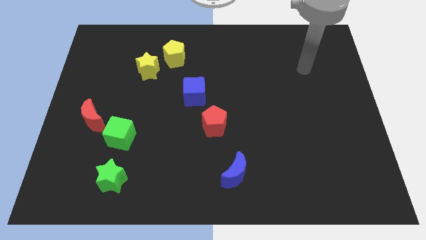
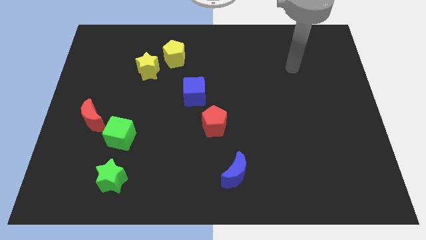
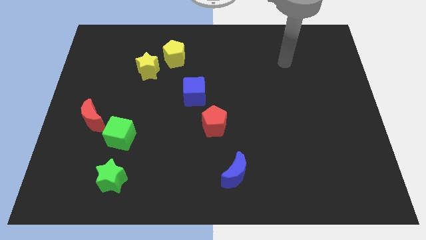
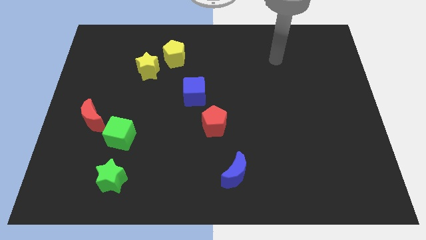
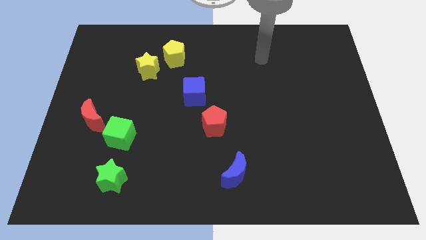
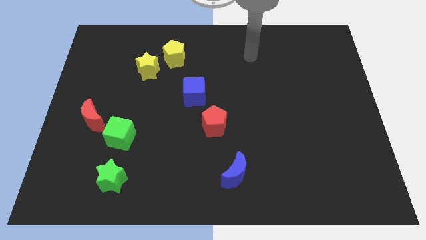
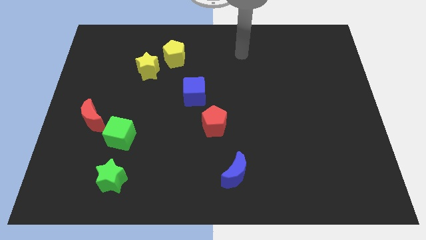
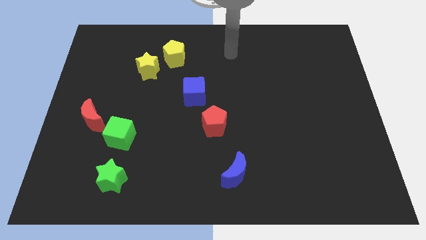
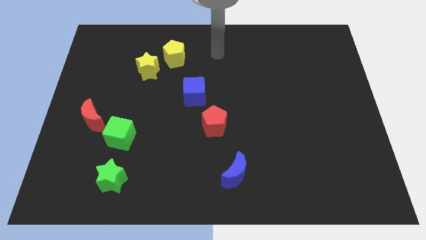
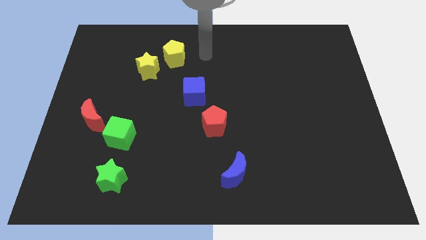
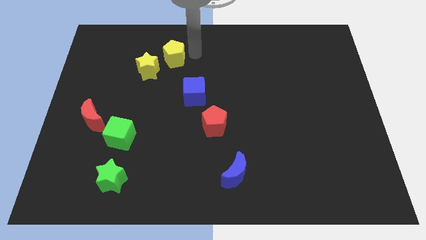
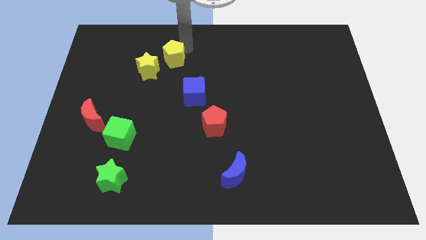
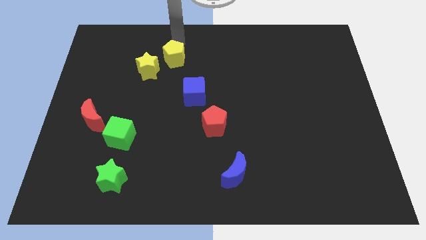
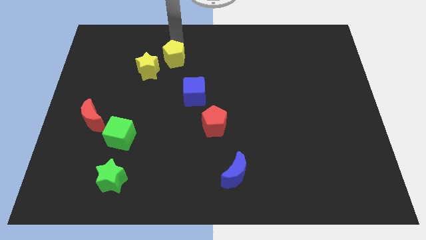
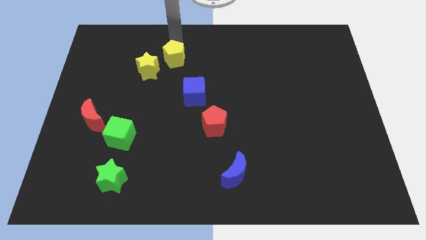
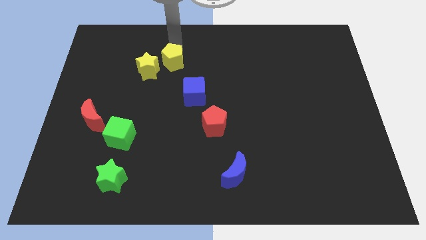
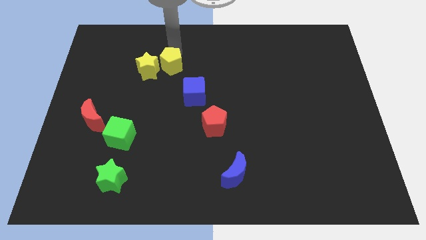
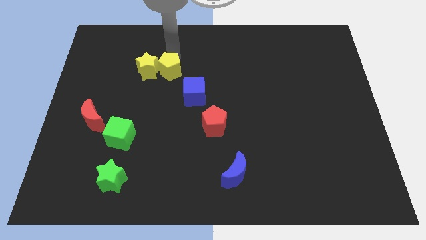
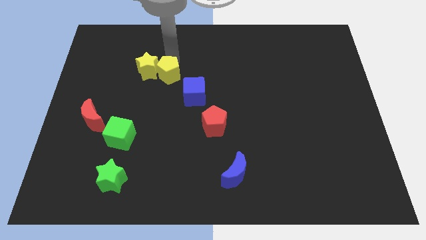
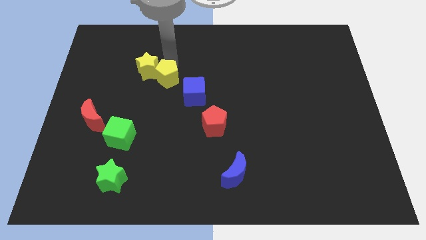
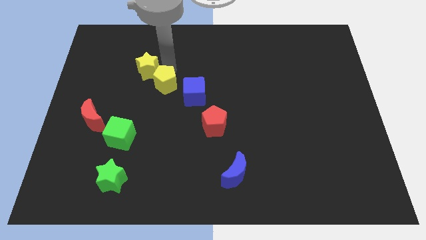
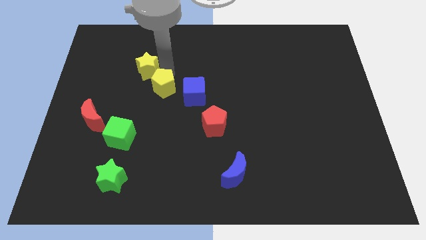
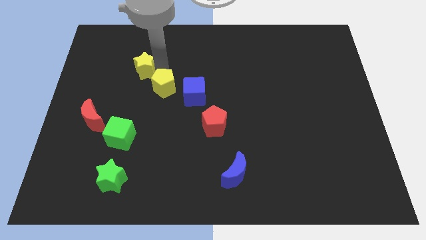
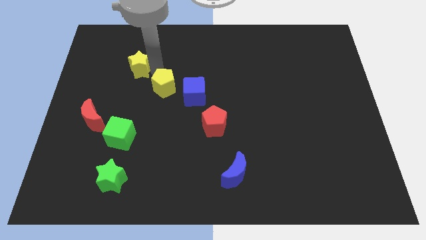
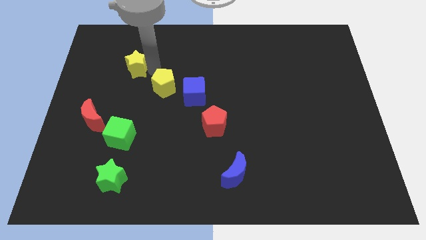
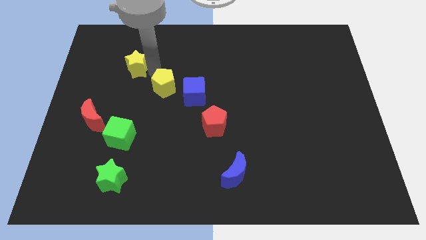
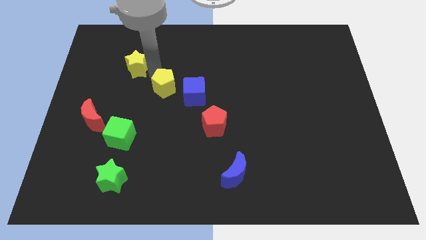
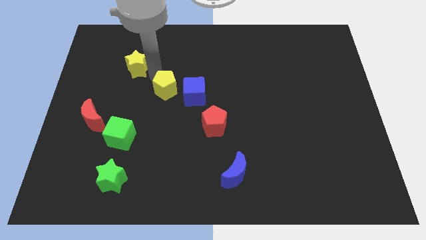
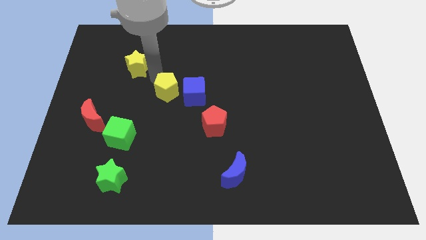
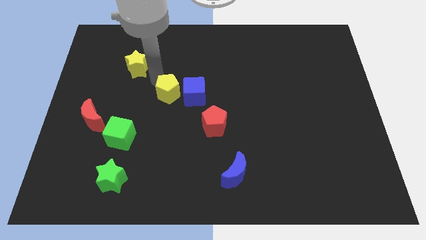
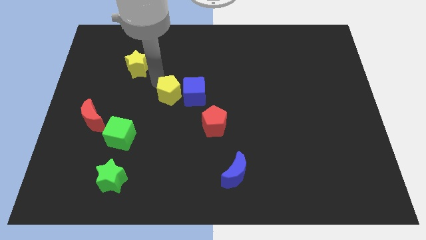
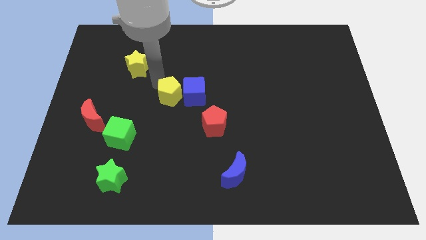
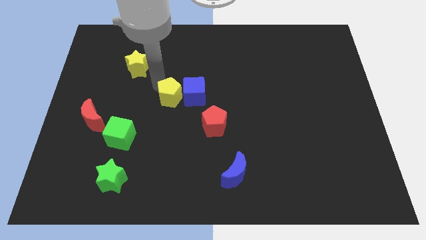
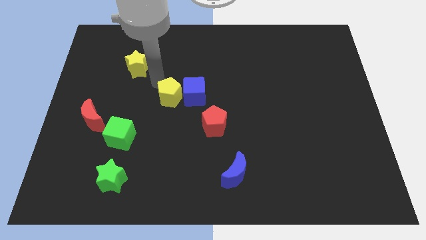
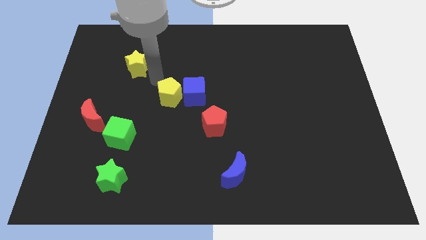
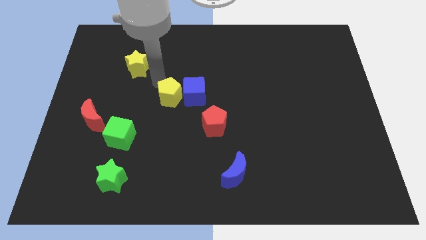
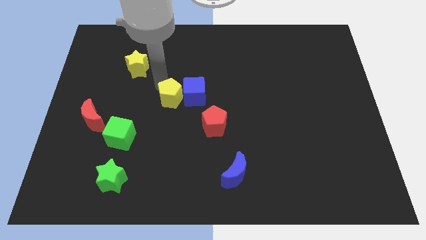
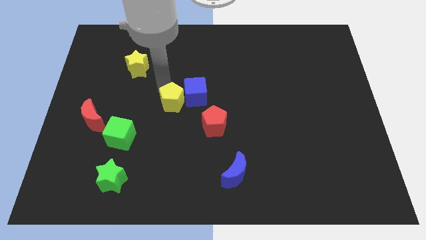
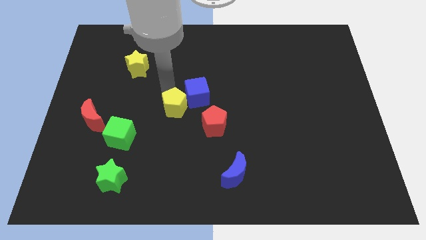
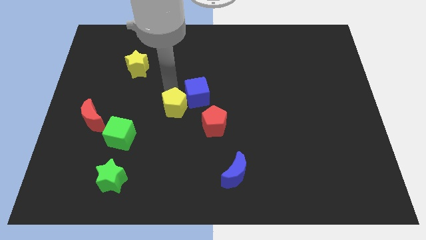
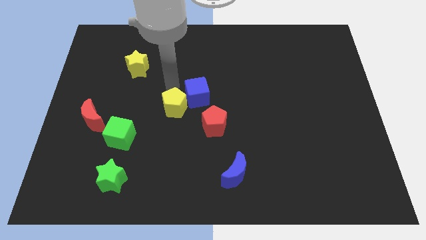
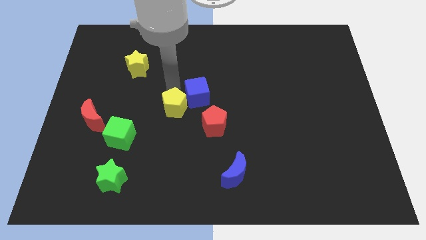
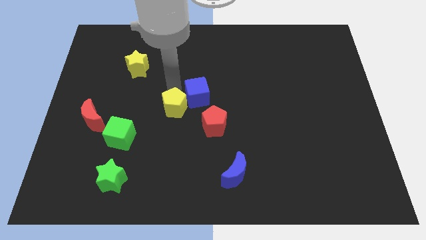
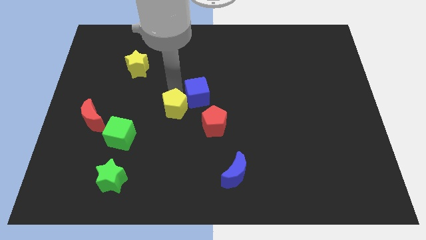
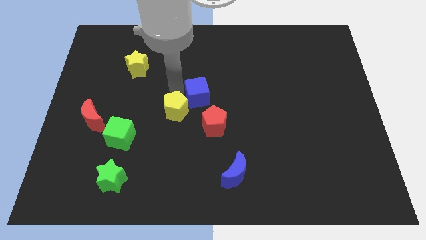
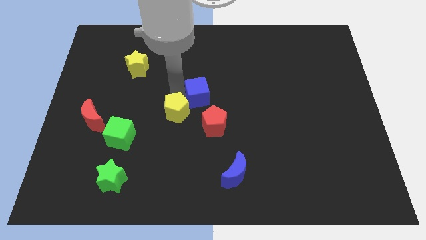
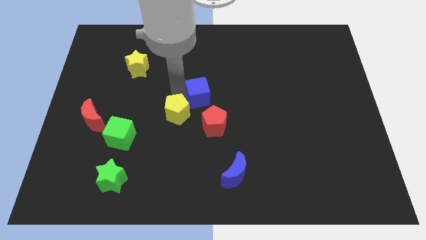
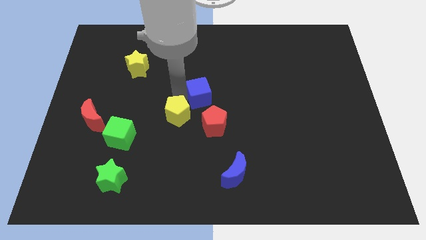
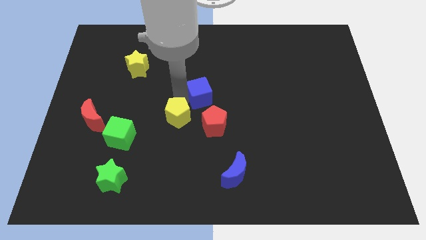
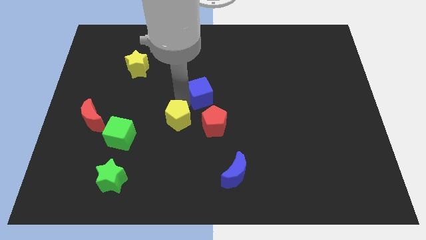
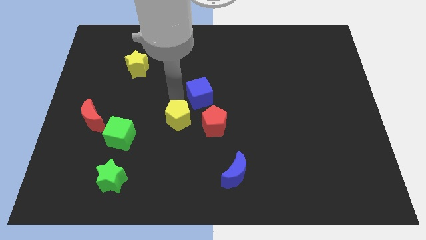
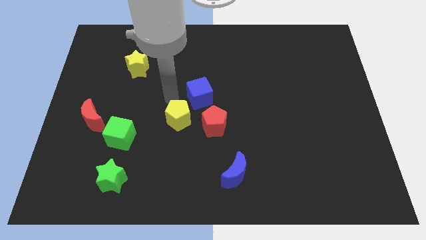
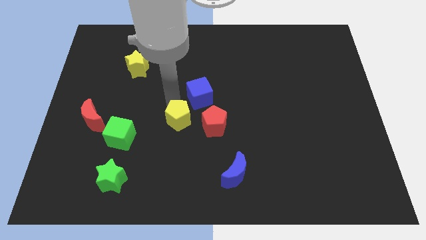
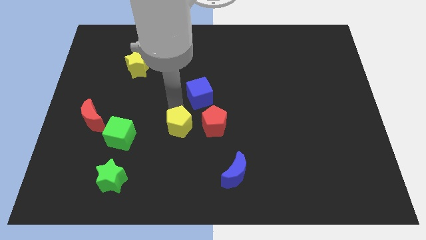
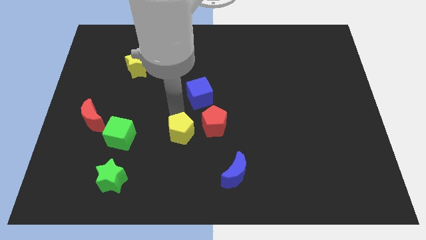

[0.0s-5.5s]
put the yellow pentagon to the bottom left of the red pentagon

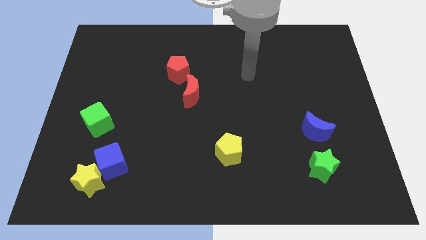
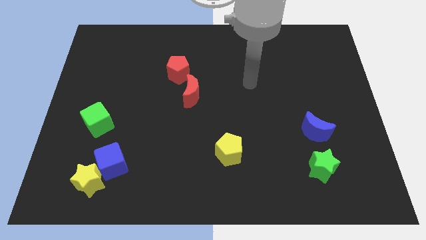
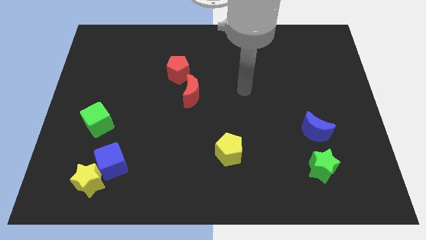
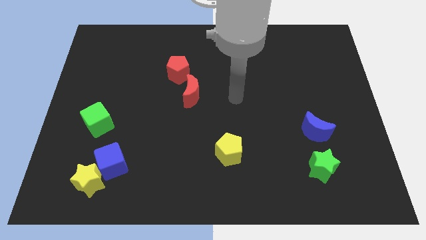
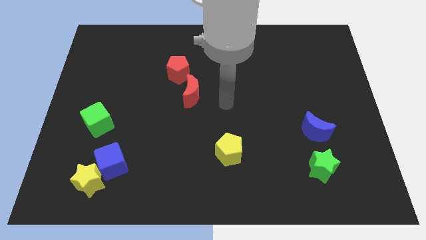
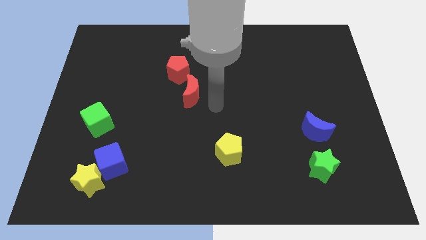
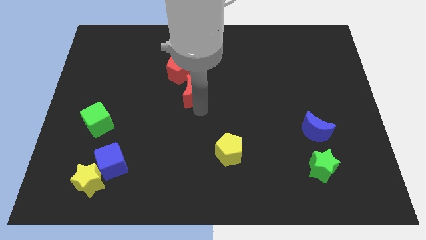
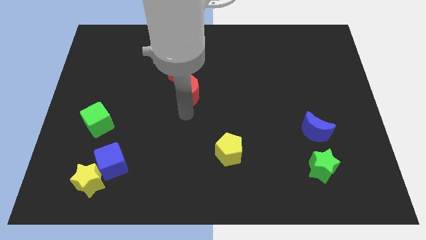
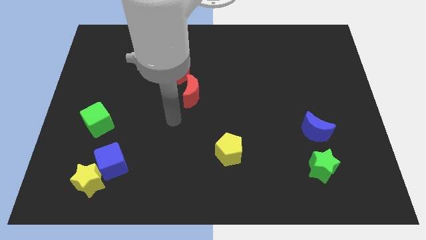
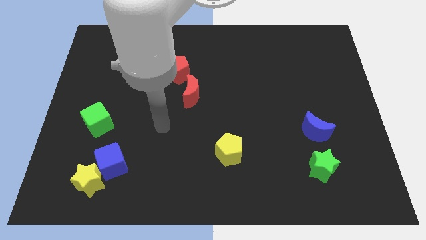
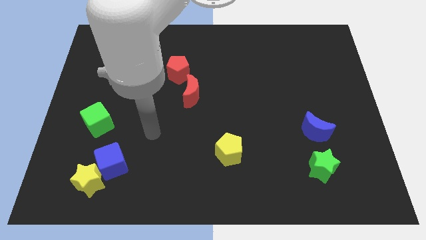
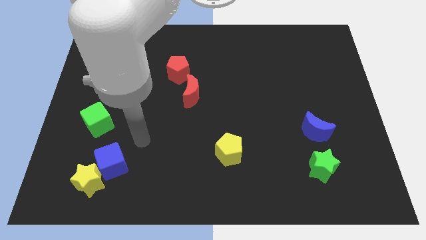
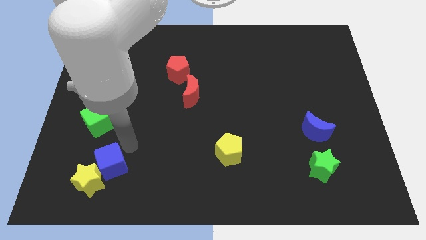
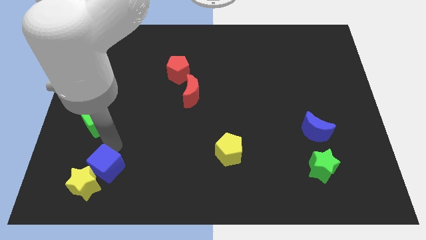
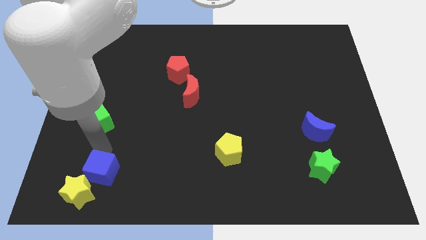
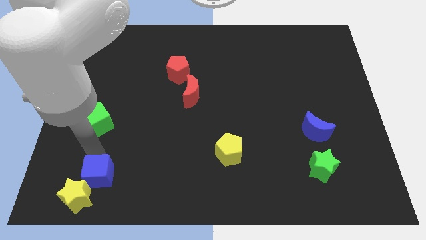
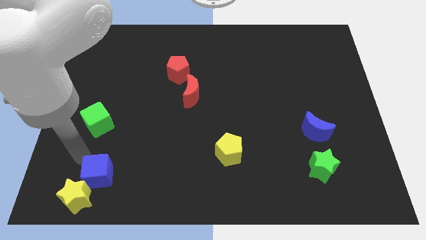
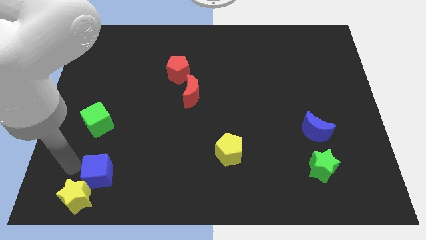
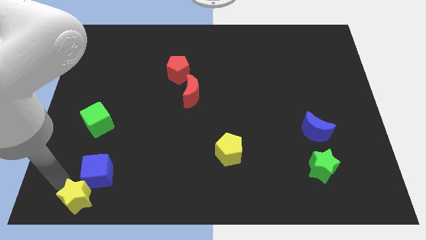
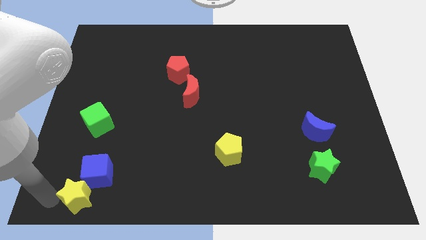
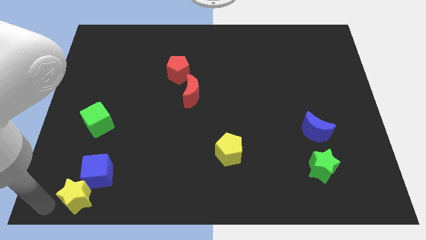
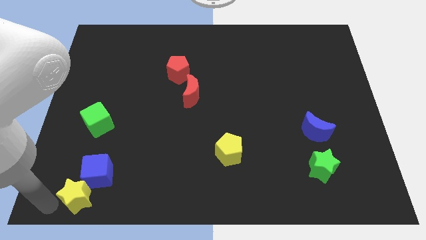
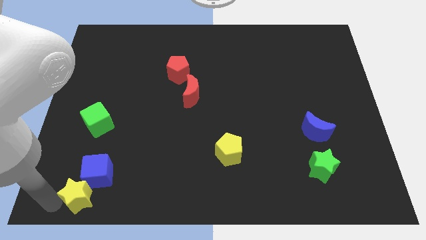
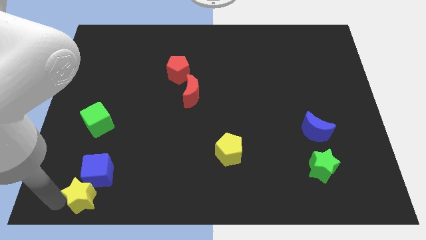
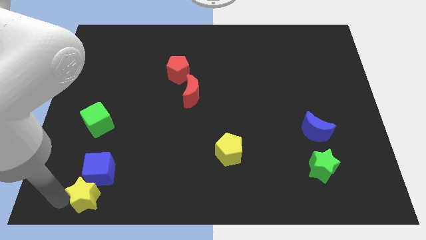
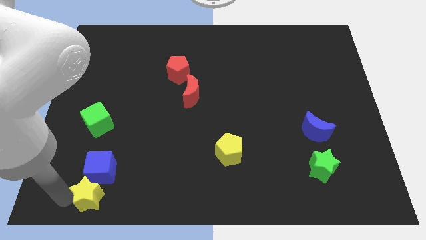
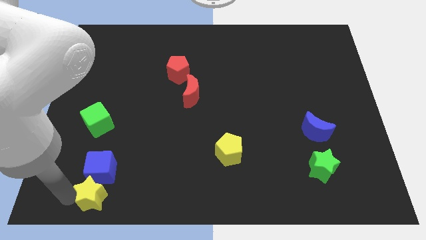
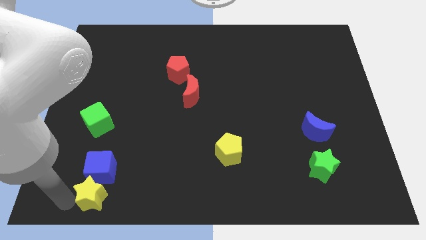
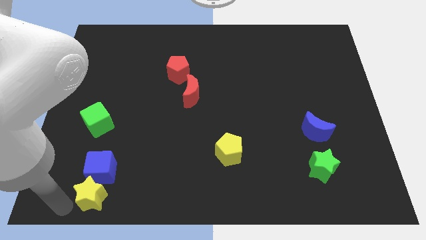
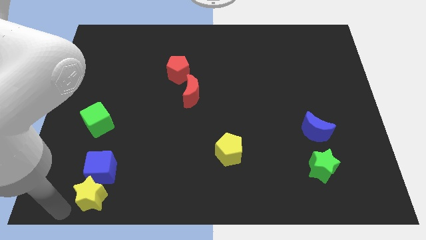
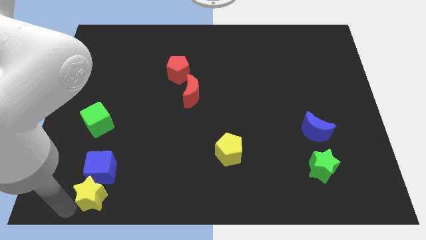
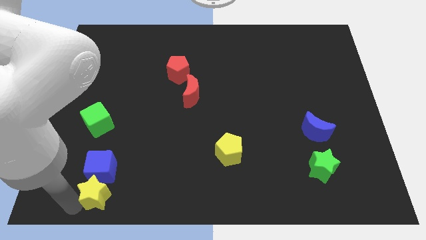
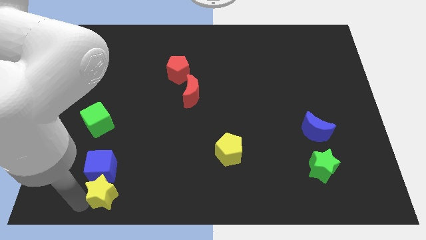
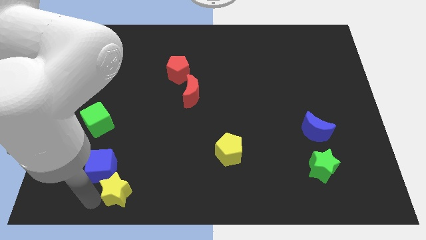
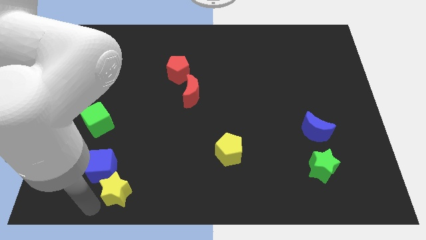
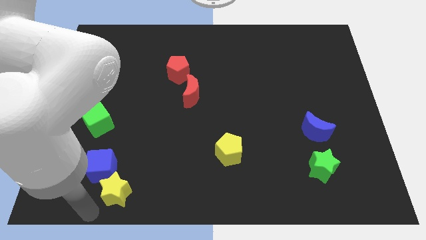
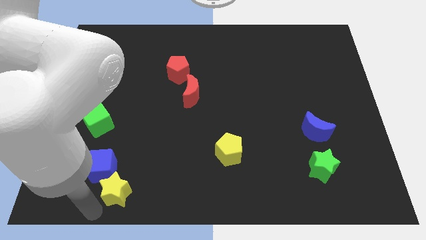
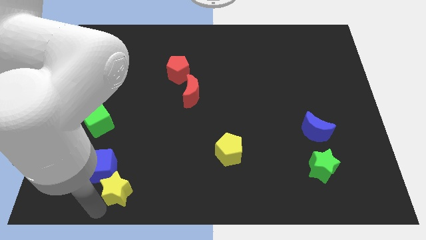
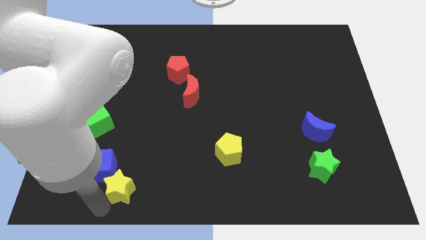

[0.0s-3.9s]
slide the yellow star to the right of the blue cube
